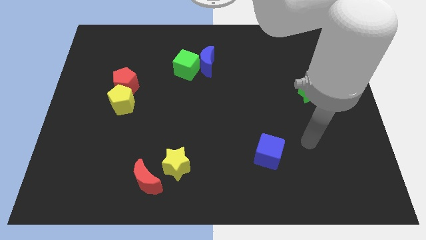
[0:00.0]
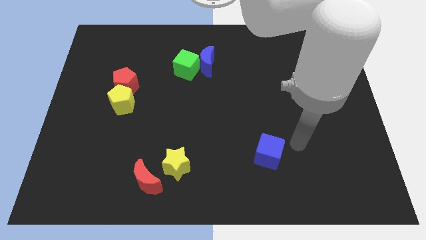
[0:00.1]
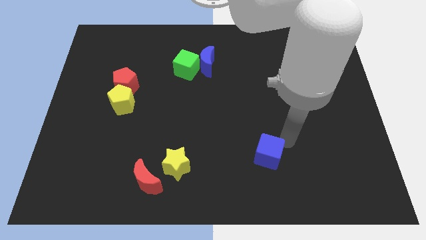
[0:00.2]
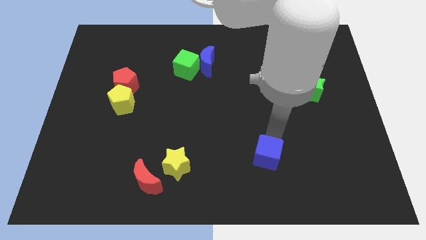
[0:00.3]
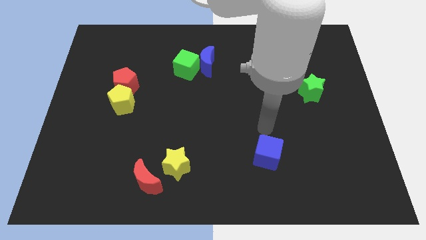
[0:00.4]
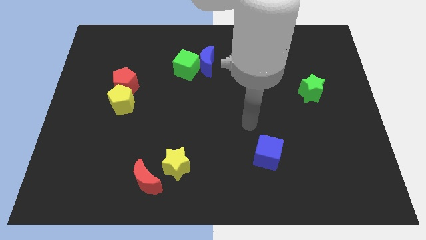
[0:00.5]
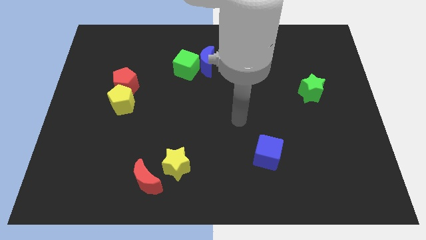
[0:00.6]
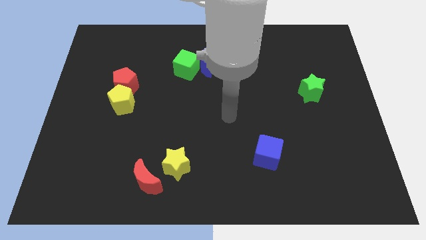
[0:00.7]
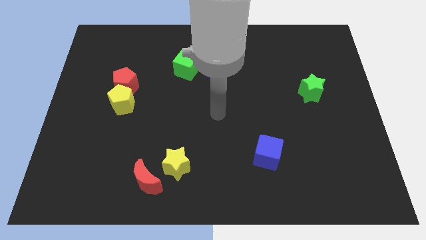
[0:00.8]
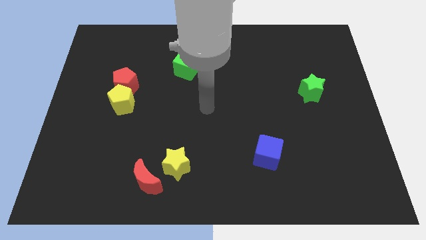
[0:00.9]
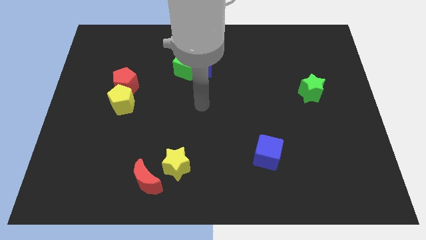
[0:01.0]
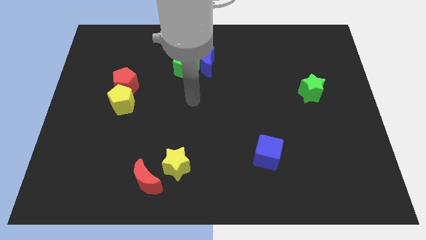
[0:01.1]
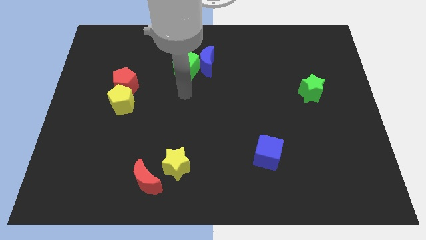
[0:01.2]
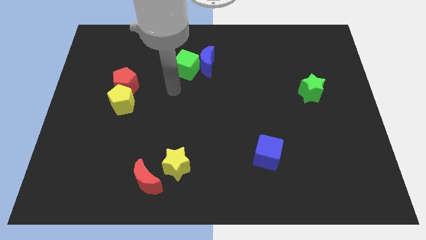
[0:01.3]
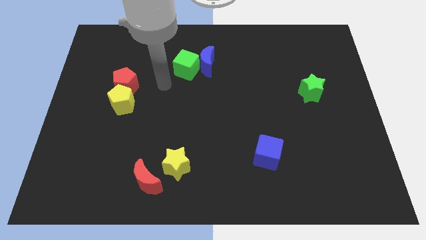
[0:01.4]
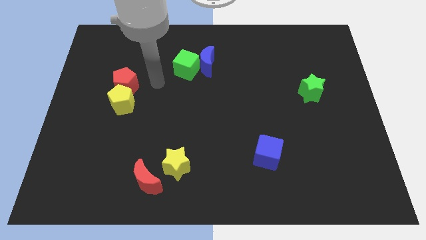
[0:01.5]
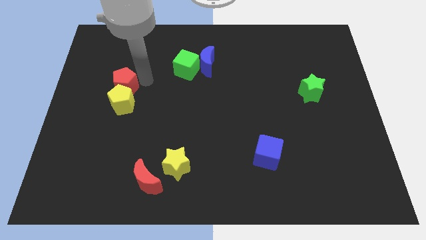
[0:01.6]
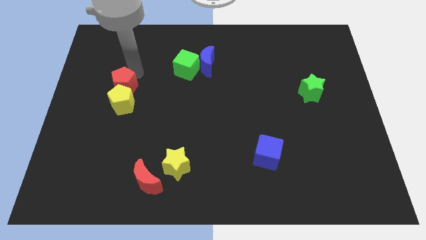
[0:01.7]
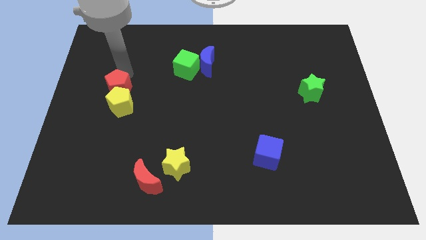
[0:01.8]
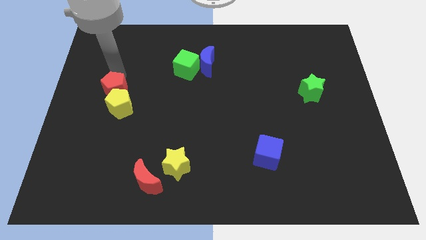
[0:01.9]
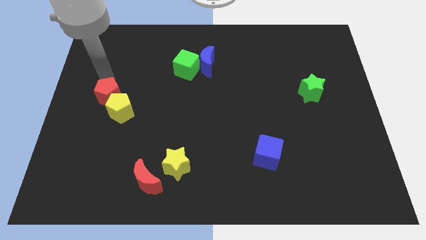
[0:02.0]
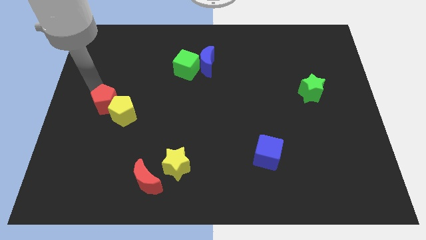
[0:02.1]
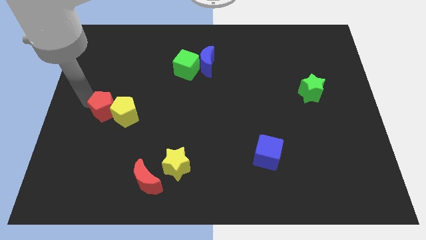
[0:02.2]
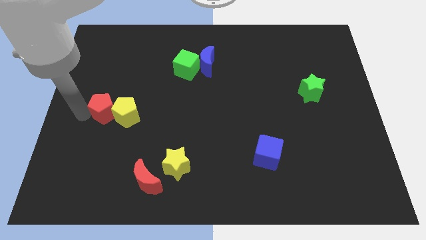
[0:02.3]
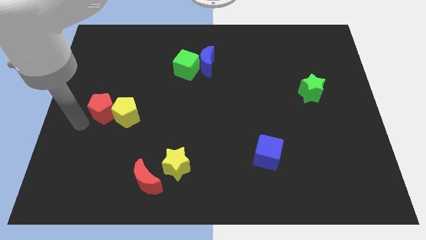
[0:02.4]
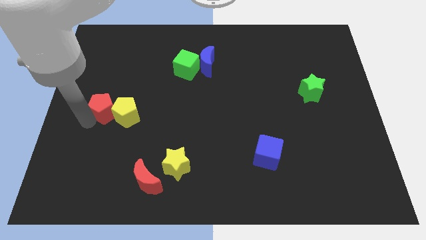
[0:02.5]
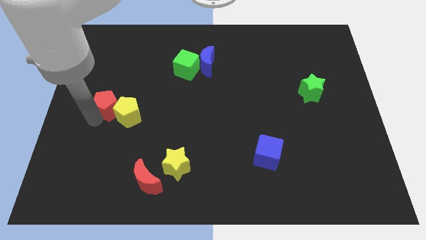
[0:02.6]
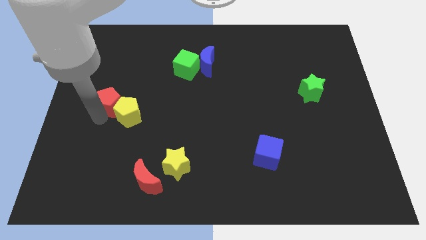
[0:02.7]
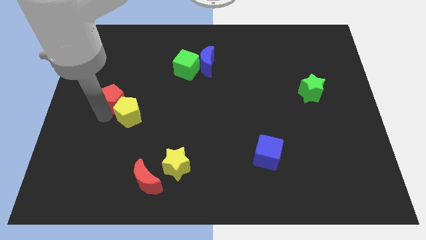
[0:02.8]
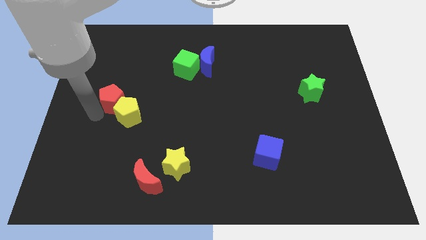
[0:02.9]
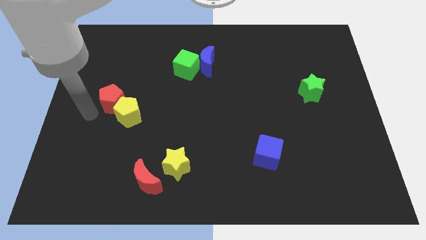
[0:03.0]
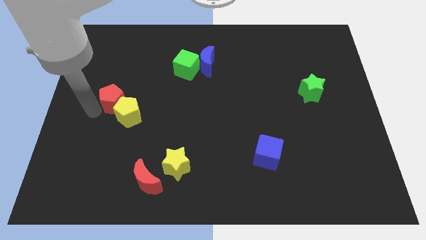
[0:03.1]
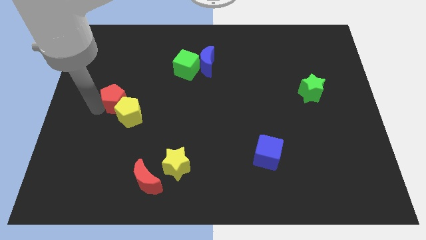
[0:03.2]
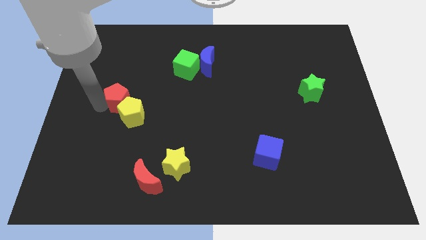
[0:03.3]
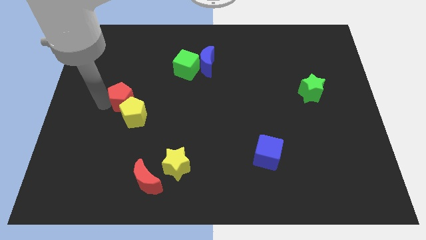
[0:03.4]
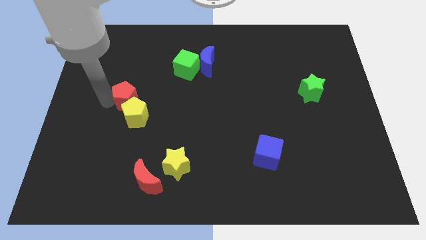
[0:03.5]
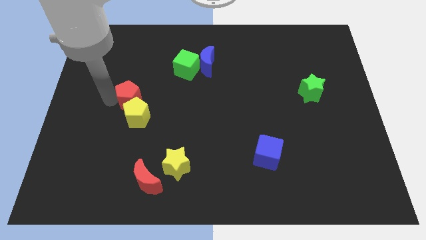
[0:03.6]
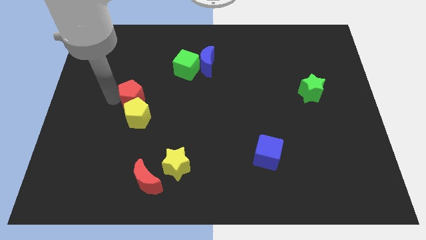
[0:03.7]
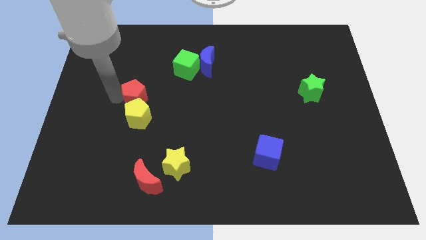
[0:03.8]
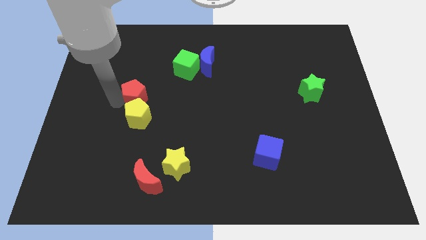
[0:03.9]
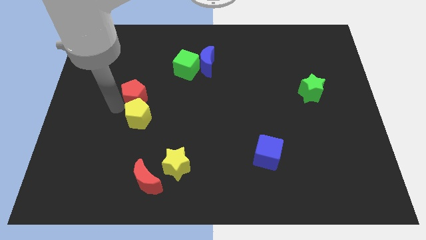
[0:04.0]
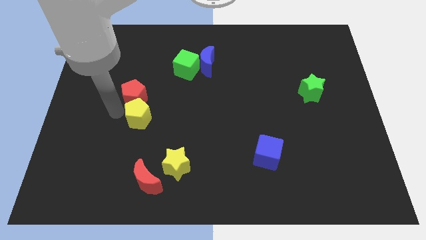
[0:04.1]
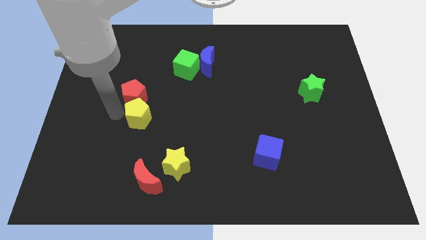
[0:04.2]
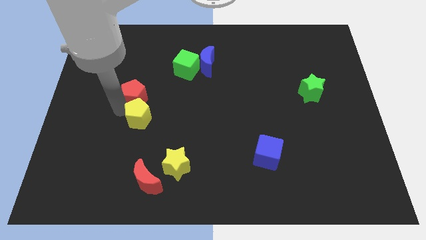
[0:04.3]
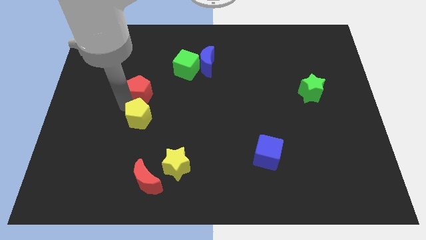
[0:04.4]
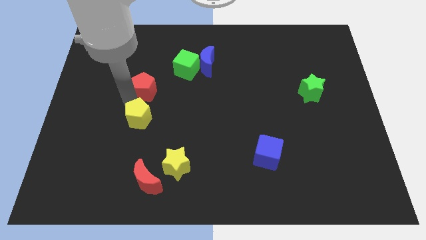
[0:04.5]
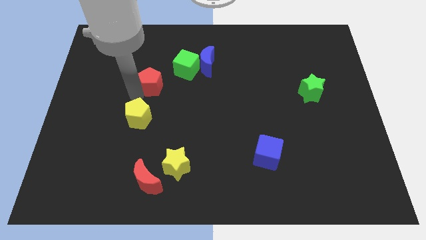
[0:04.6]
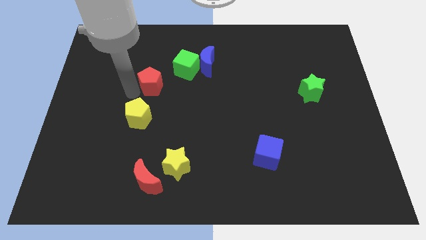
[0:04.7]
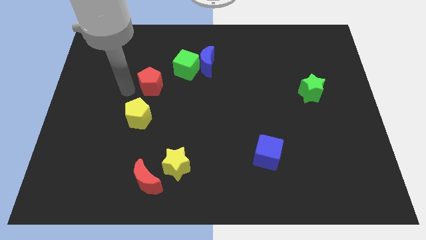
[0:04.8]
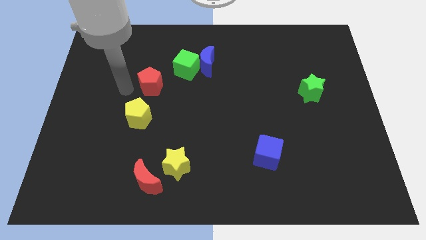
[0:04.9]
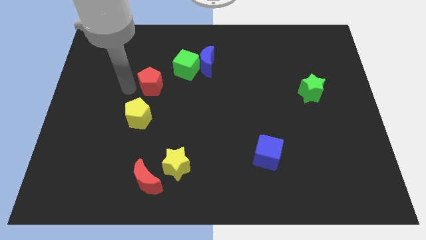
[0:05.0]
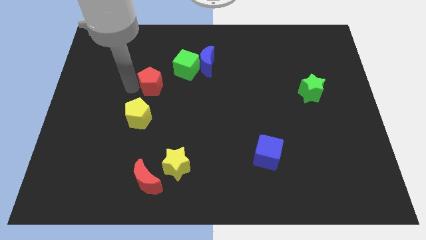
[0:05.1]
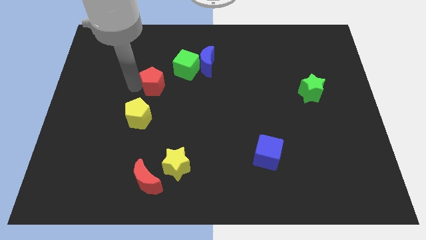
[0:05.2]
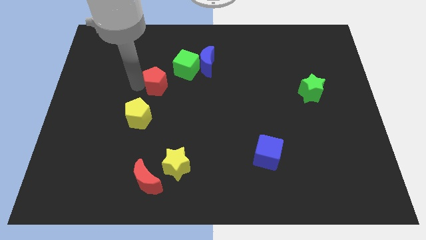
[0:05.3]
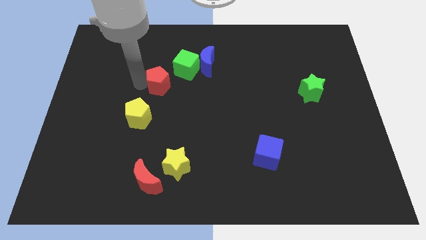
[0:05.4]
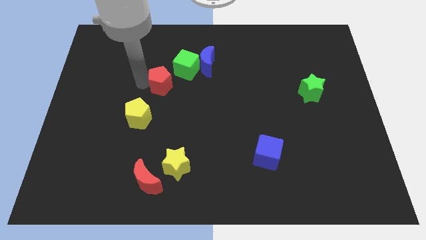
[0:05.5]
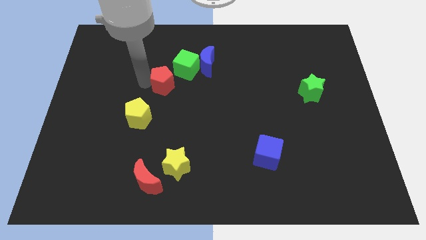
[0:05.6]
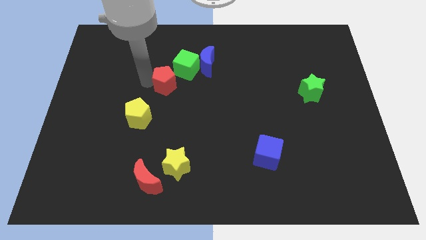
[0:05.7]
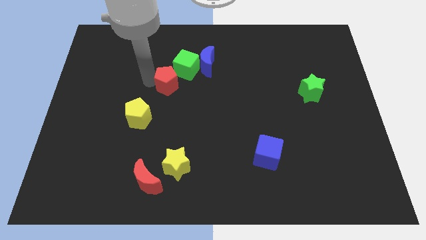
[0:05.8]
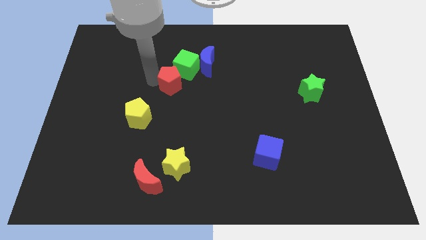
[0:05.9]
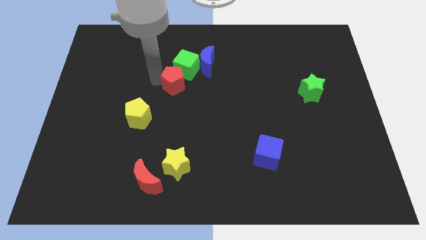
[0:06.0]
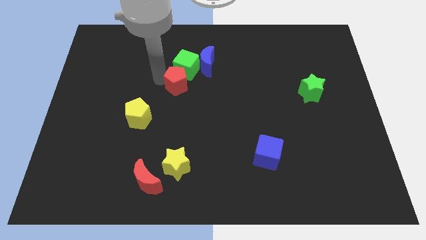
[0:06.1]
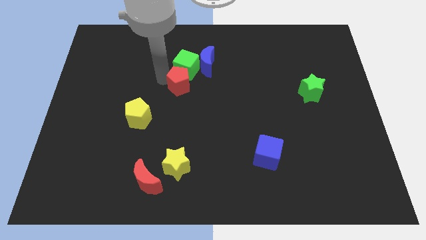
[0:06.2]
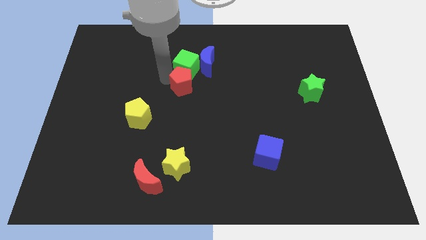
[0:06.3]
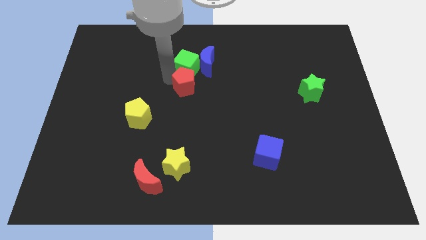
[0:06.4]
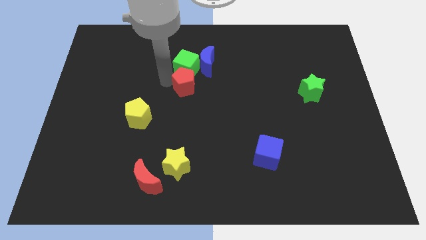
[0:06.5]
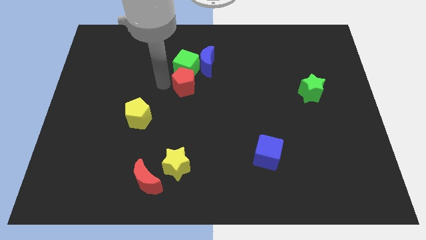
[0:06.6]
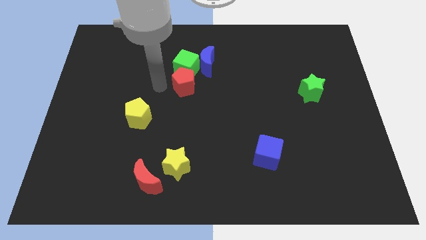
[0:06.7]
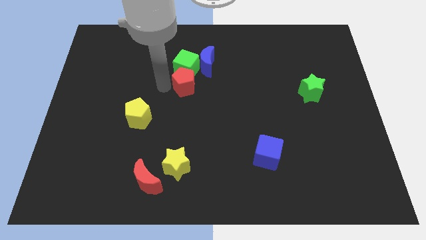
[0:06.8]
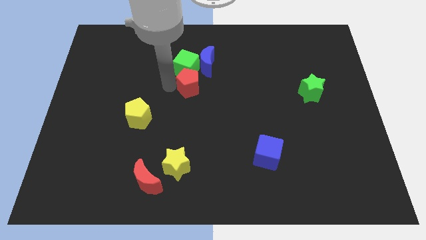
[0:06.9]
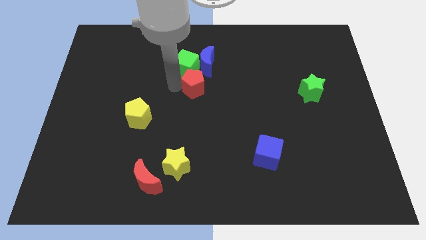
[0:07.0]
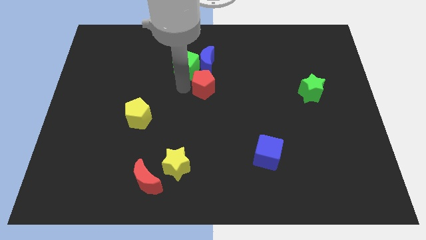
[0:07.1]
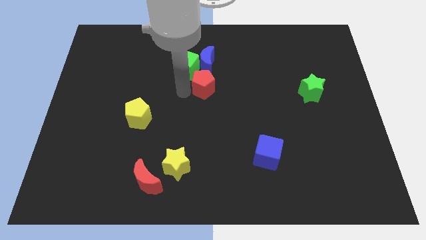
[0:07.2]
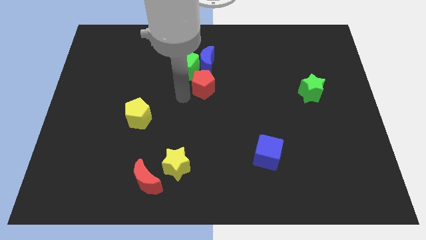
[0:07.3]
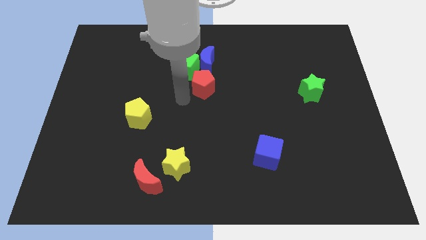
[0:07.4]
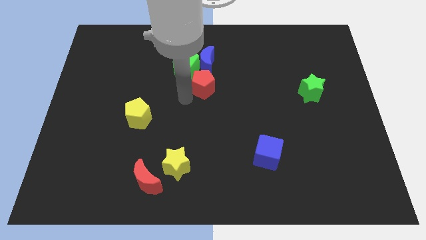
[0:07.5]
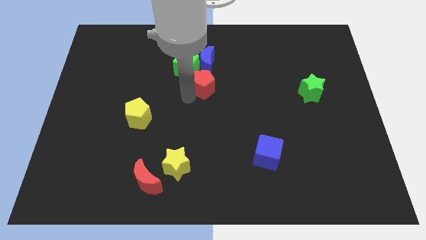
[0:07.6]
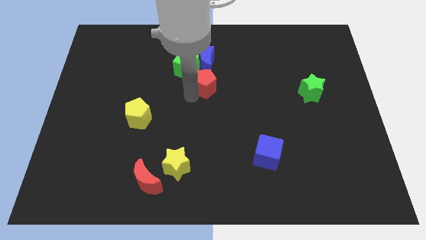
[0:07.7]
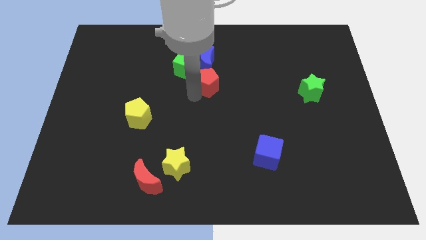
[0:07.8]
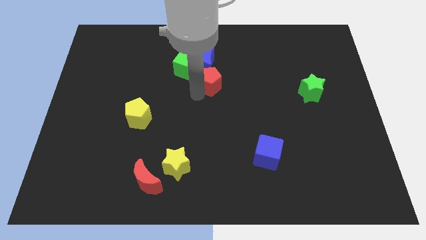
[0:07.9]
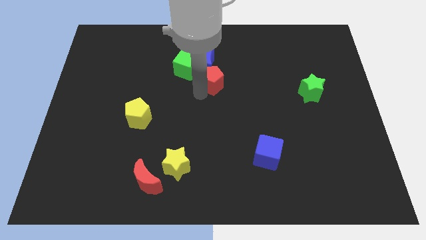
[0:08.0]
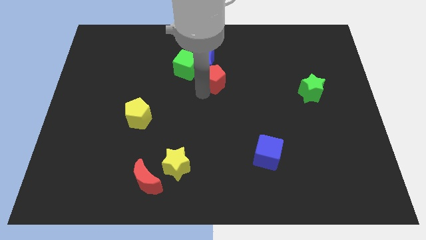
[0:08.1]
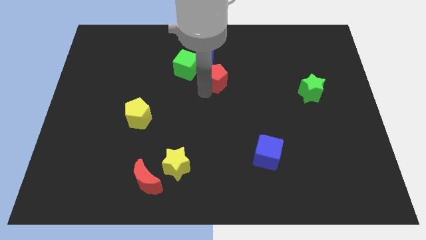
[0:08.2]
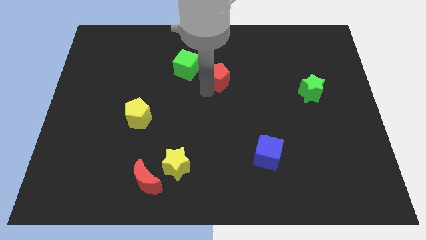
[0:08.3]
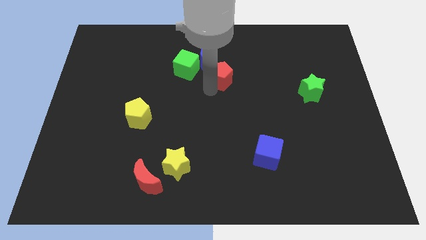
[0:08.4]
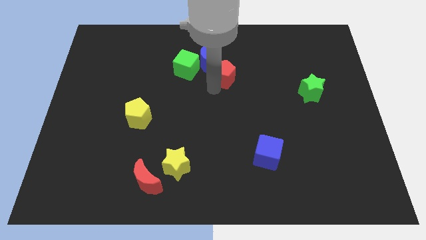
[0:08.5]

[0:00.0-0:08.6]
move the red pentagon right of the blue moon

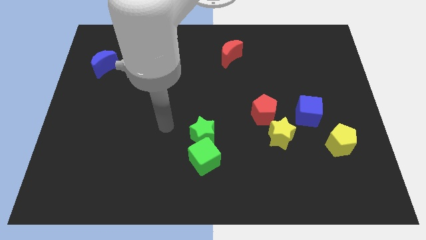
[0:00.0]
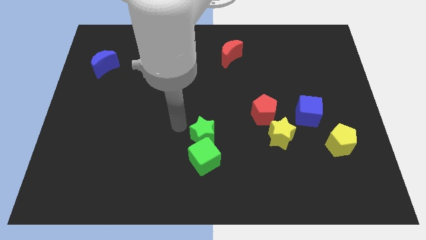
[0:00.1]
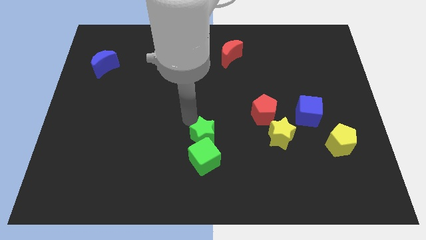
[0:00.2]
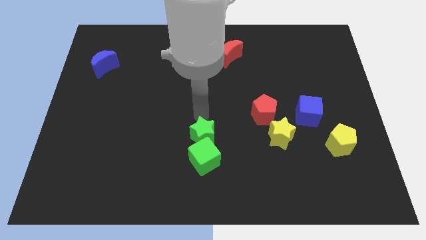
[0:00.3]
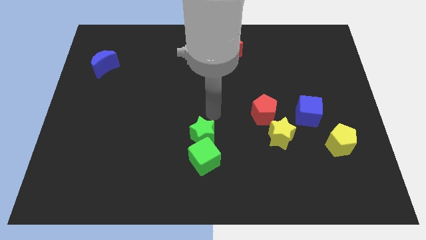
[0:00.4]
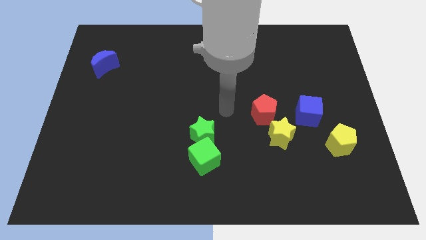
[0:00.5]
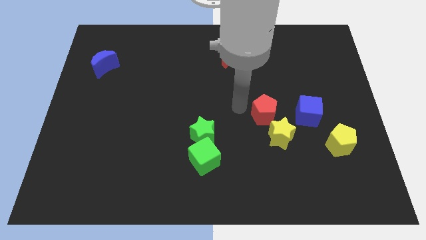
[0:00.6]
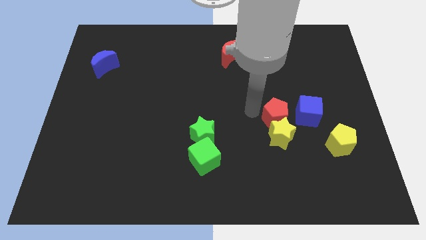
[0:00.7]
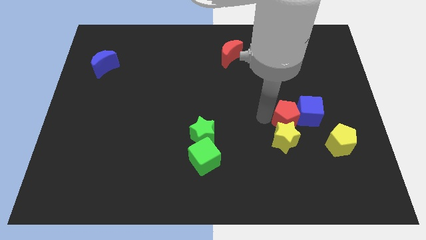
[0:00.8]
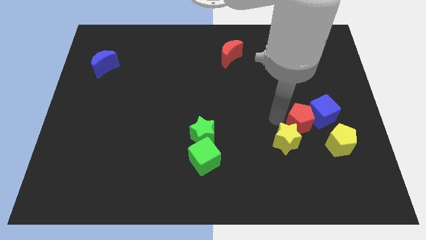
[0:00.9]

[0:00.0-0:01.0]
slide the blue cube to the top of the yellow pentagon
